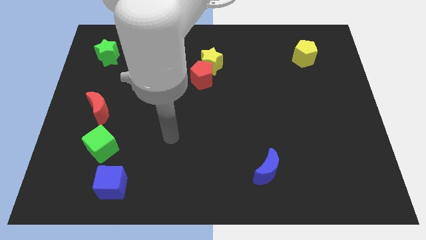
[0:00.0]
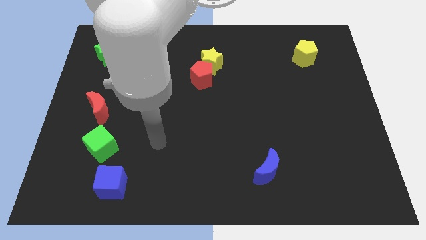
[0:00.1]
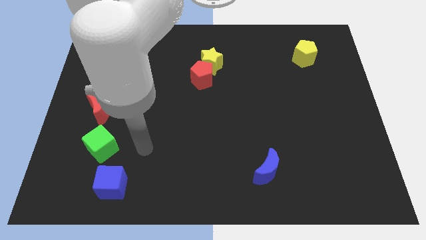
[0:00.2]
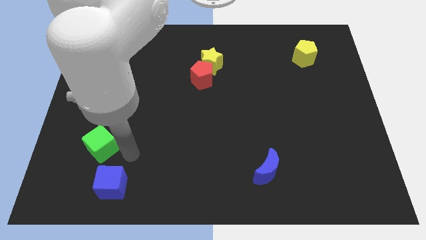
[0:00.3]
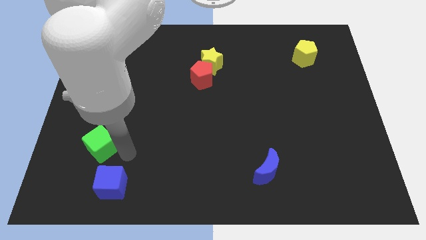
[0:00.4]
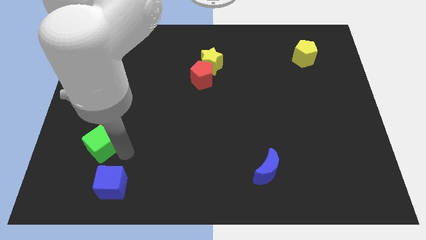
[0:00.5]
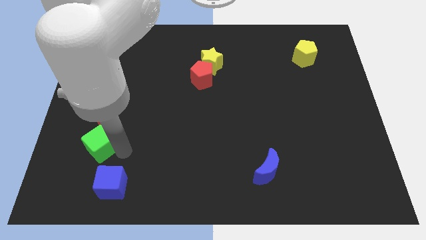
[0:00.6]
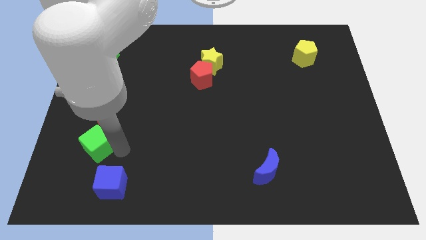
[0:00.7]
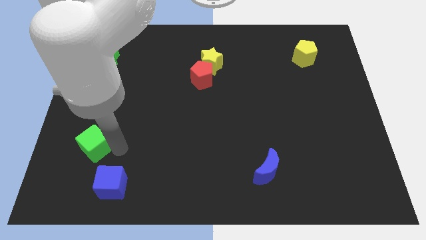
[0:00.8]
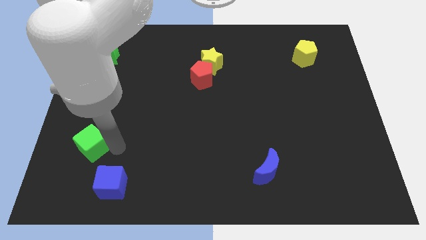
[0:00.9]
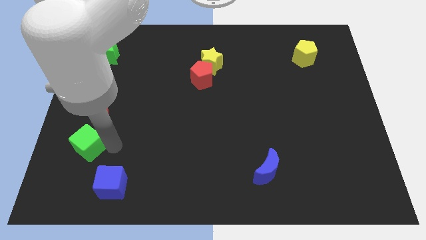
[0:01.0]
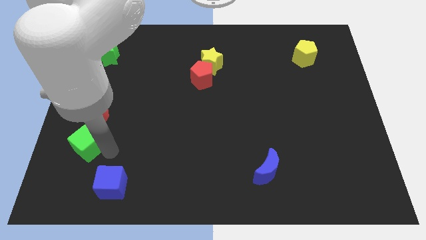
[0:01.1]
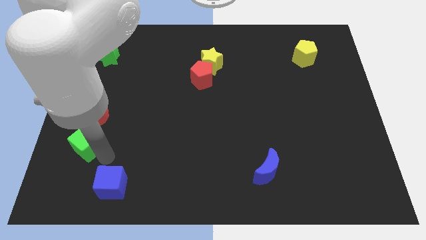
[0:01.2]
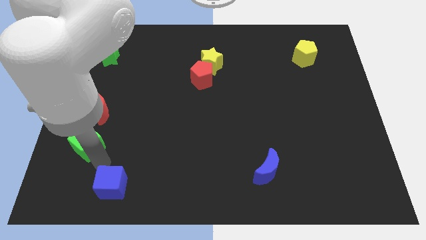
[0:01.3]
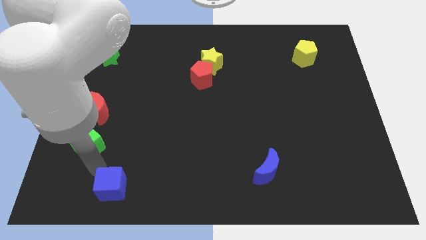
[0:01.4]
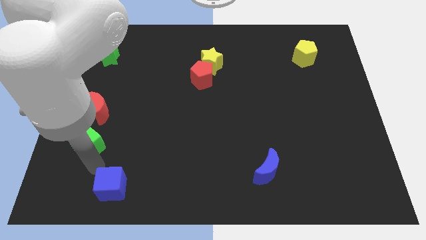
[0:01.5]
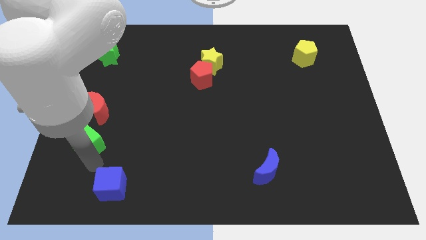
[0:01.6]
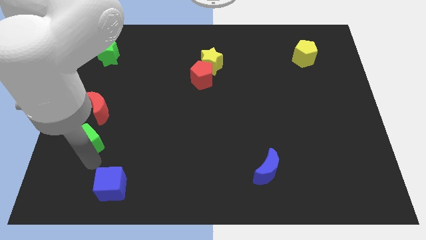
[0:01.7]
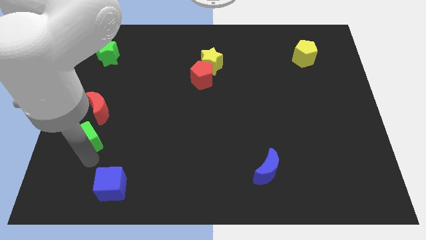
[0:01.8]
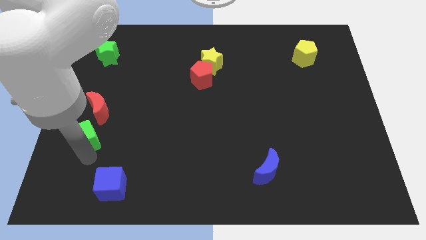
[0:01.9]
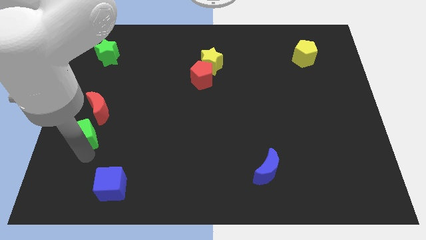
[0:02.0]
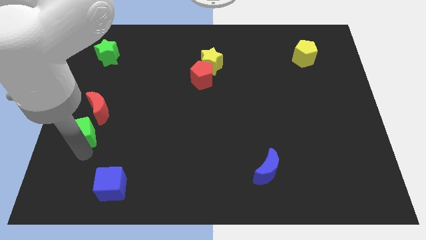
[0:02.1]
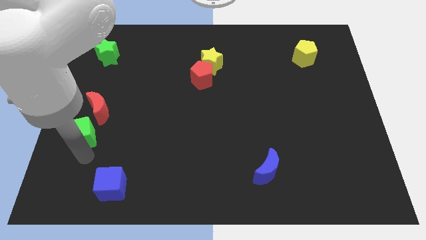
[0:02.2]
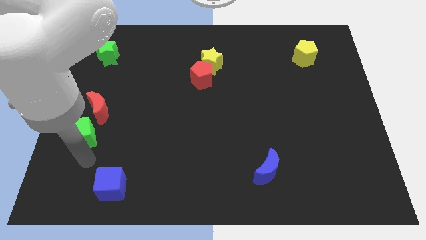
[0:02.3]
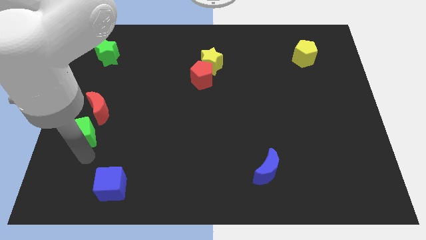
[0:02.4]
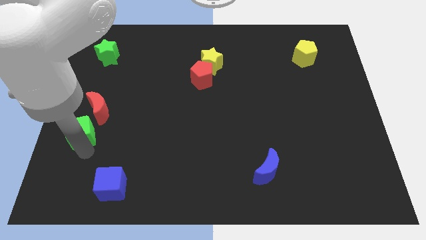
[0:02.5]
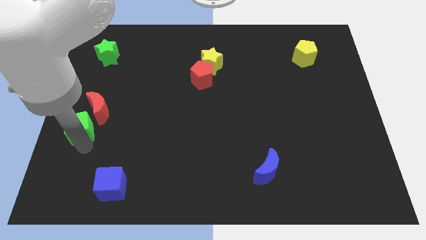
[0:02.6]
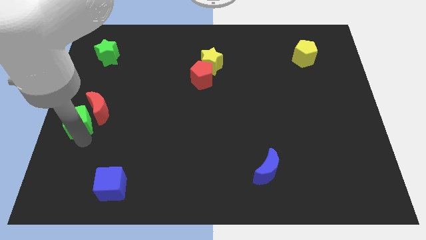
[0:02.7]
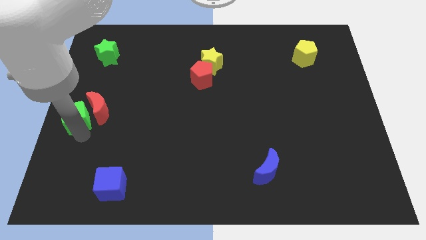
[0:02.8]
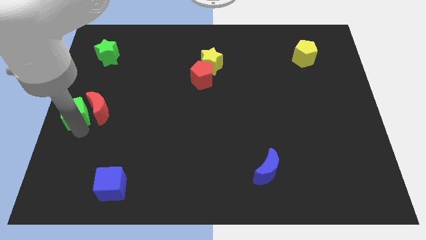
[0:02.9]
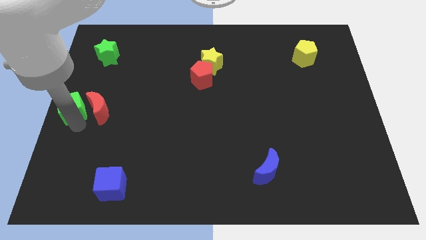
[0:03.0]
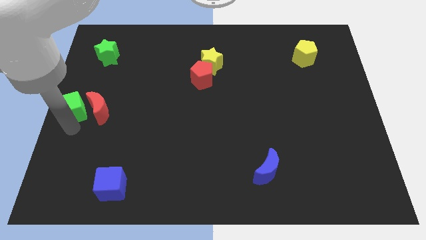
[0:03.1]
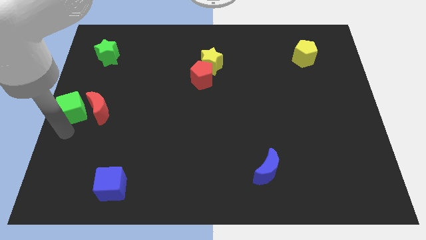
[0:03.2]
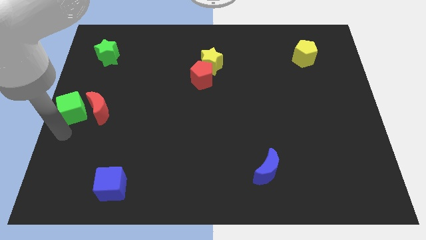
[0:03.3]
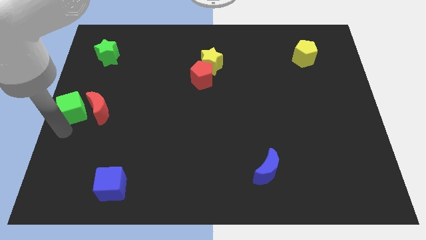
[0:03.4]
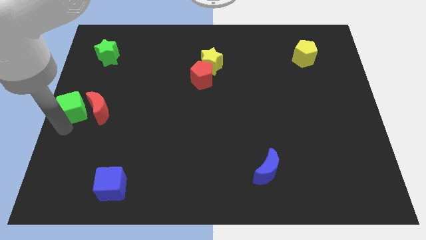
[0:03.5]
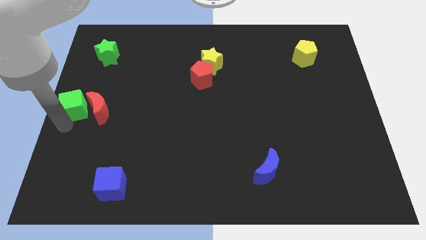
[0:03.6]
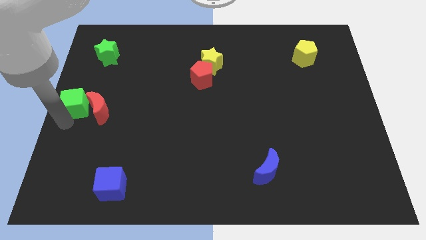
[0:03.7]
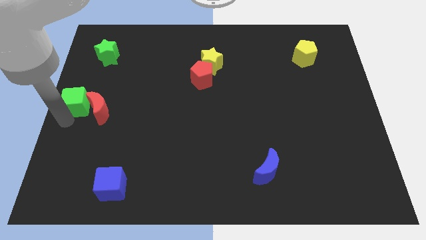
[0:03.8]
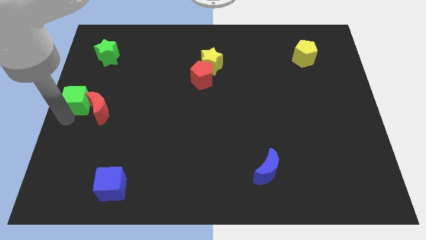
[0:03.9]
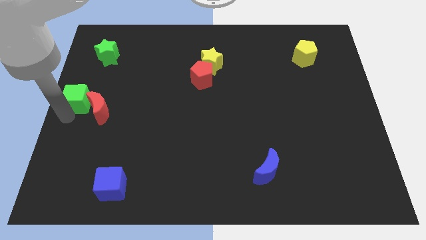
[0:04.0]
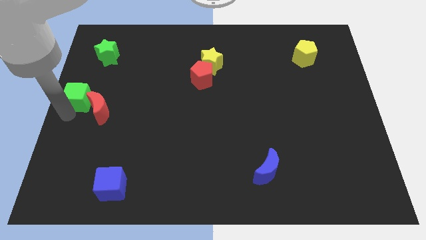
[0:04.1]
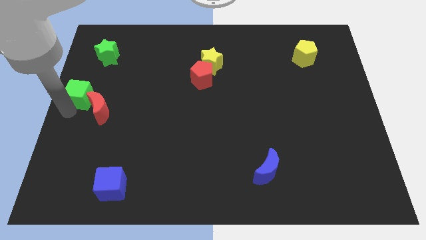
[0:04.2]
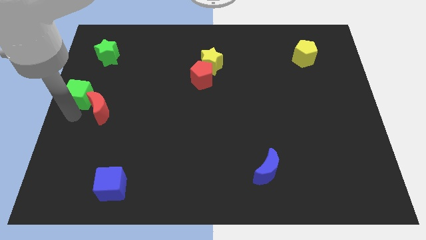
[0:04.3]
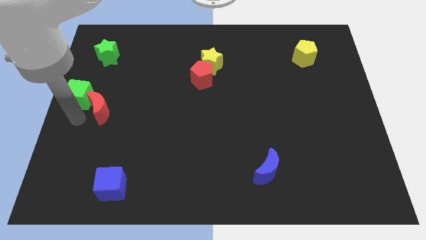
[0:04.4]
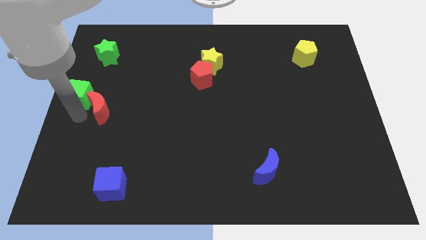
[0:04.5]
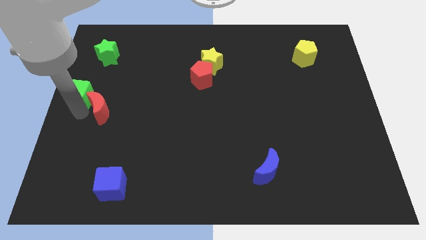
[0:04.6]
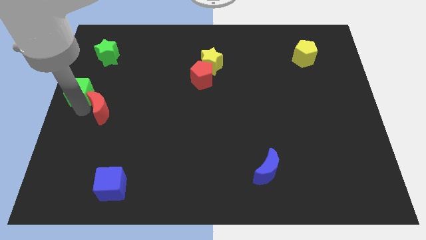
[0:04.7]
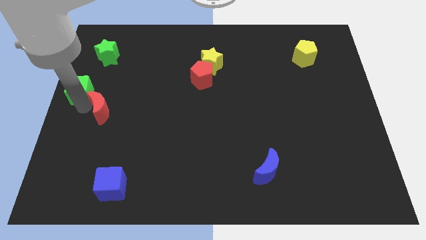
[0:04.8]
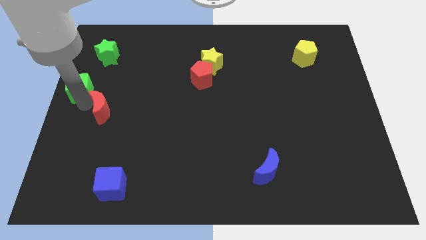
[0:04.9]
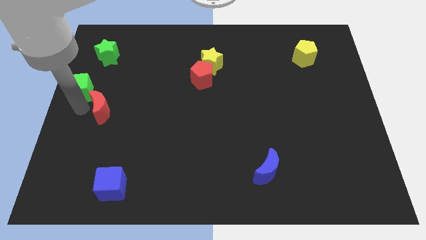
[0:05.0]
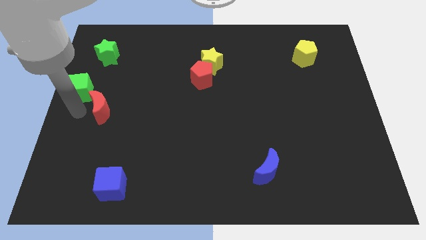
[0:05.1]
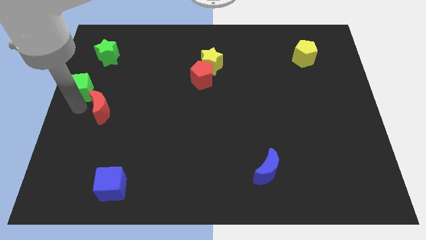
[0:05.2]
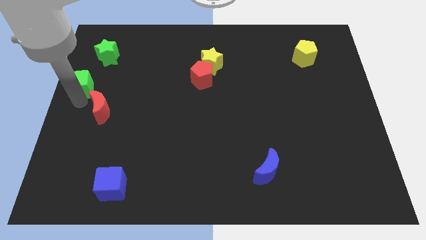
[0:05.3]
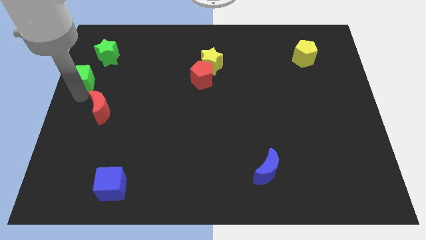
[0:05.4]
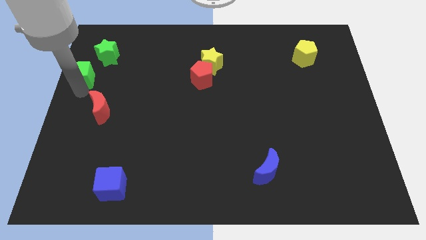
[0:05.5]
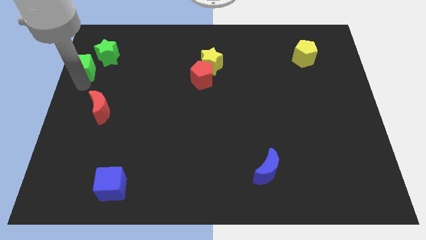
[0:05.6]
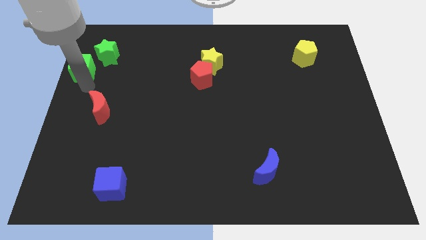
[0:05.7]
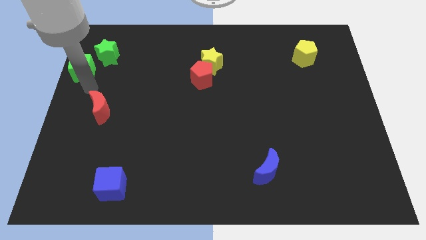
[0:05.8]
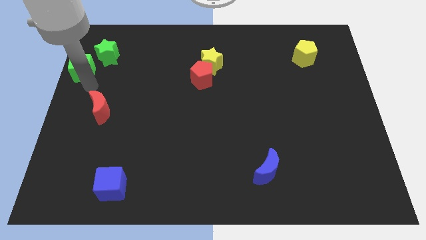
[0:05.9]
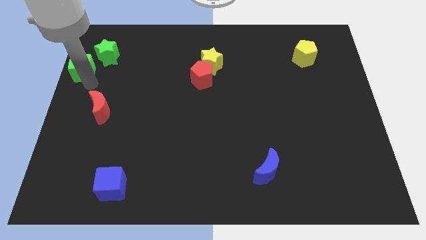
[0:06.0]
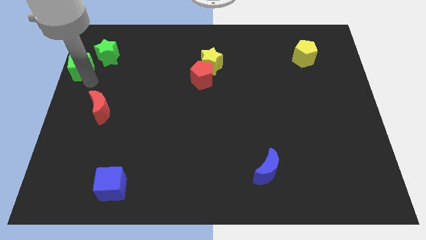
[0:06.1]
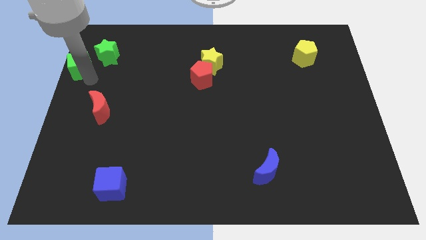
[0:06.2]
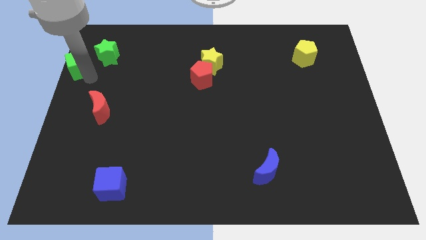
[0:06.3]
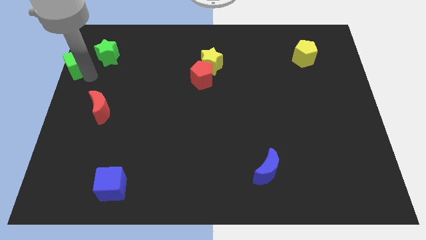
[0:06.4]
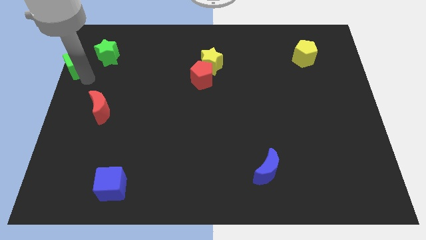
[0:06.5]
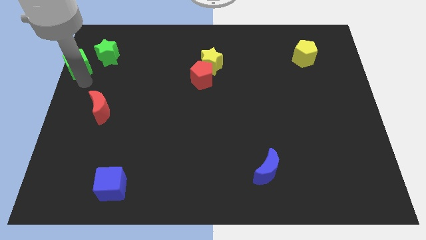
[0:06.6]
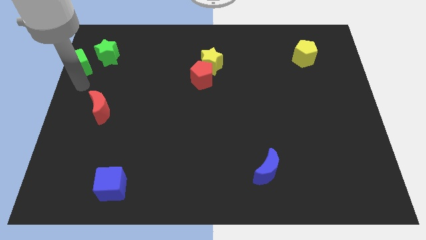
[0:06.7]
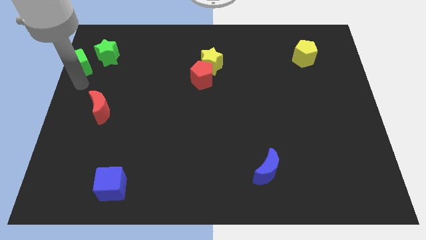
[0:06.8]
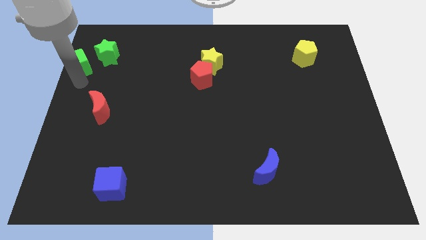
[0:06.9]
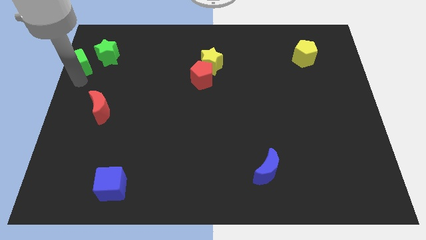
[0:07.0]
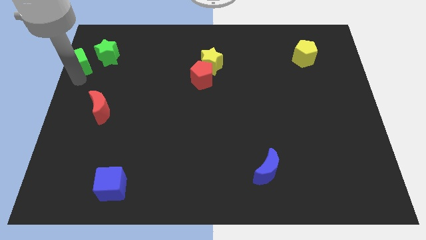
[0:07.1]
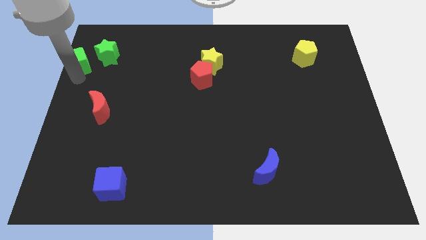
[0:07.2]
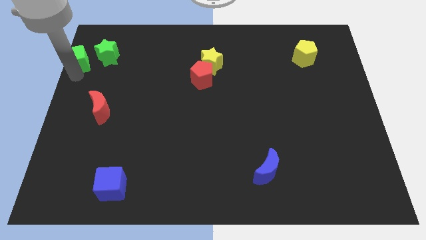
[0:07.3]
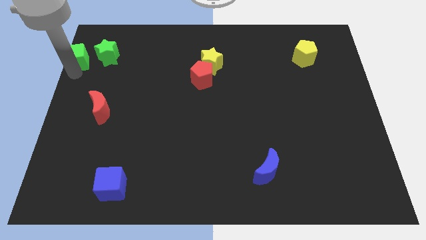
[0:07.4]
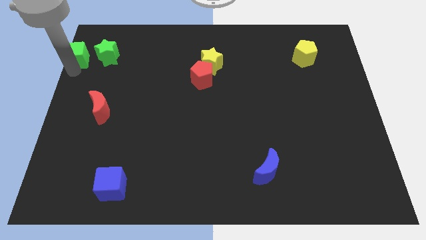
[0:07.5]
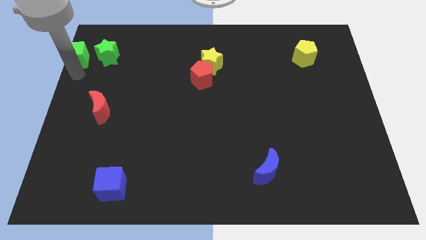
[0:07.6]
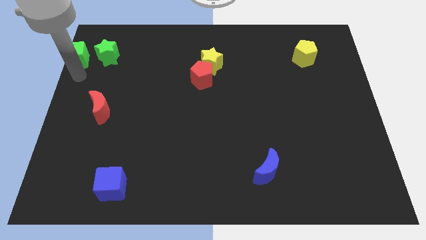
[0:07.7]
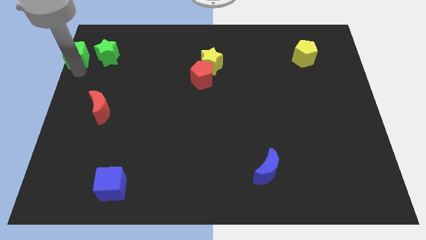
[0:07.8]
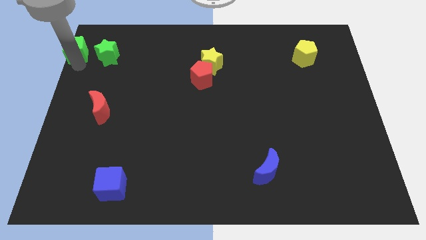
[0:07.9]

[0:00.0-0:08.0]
push the green cube to the upper left corner
